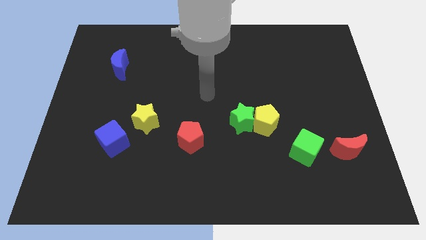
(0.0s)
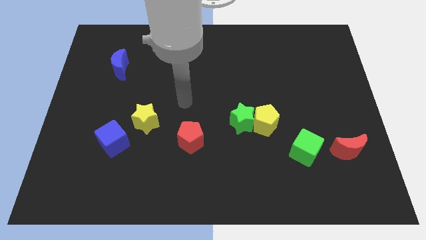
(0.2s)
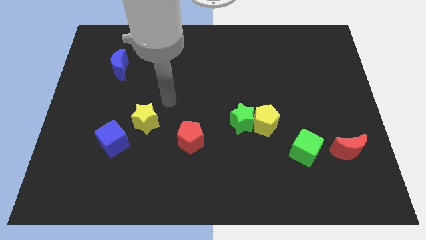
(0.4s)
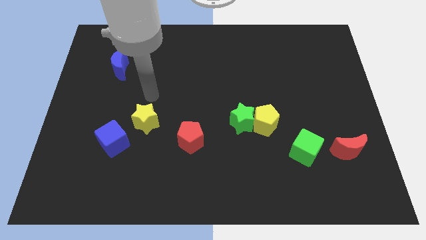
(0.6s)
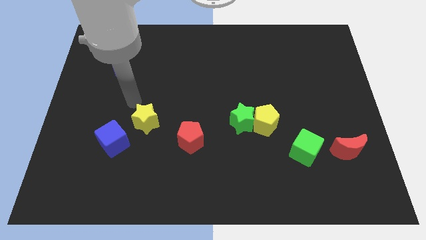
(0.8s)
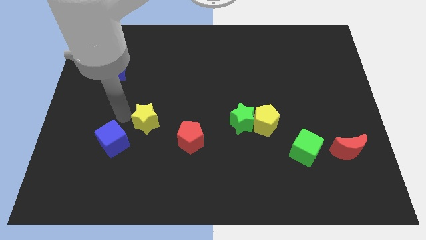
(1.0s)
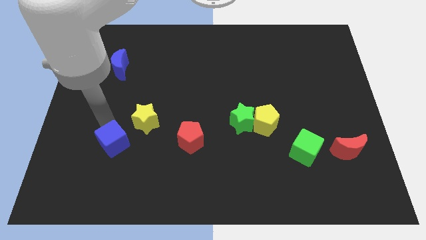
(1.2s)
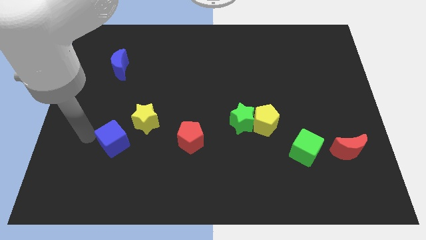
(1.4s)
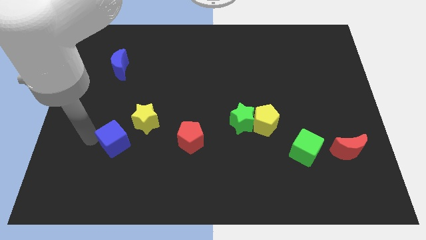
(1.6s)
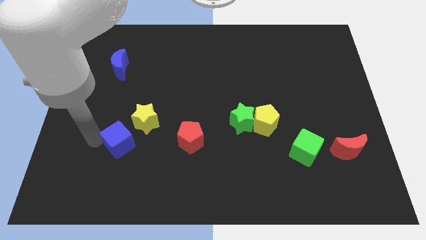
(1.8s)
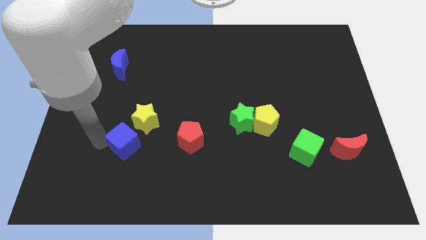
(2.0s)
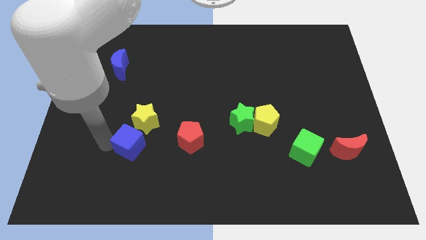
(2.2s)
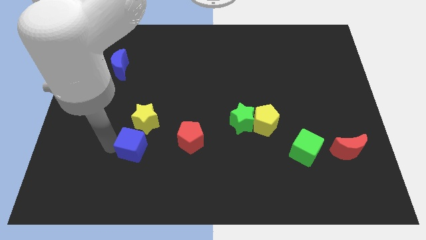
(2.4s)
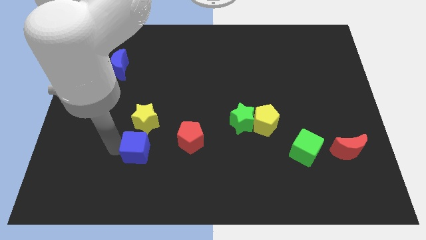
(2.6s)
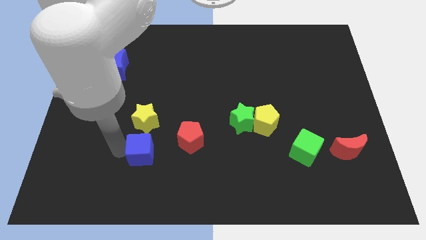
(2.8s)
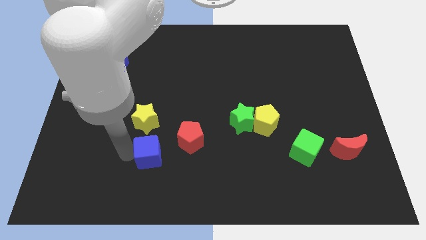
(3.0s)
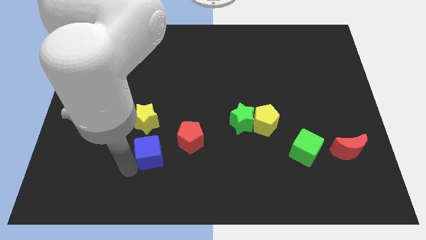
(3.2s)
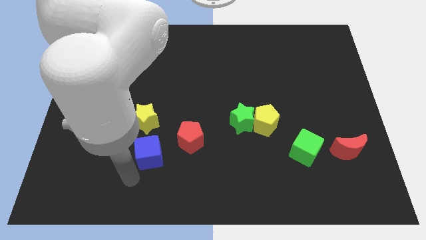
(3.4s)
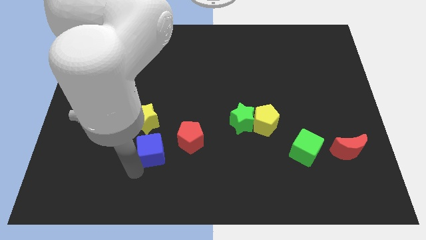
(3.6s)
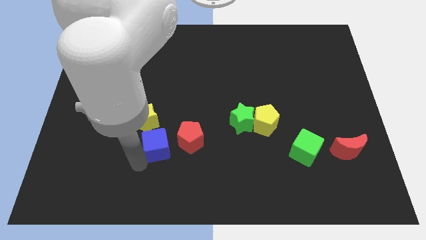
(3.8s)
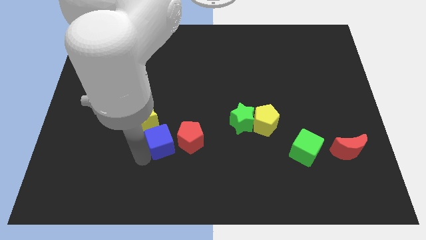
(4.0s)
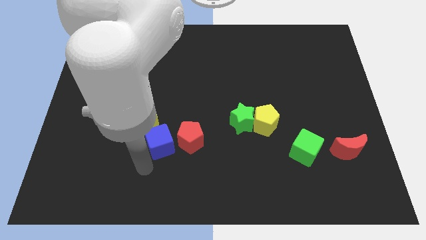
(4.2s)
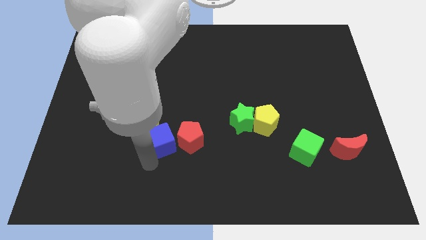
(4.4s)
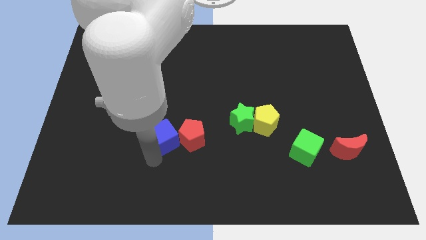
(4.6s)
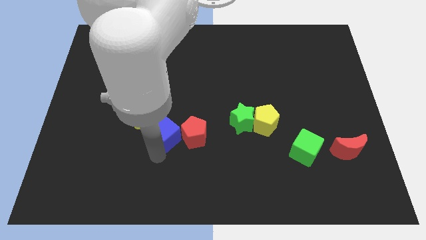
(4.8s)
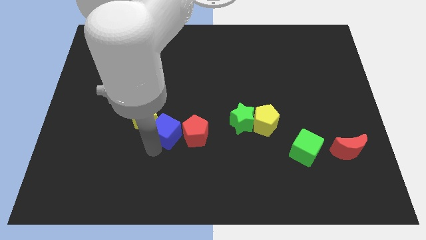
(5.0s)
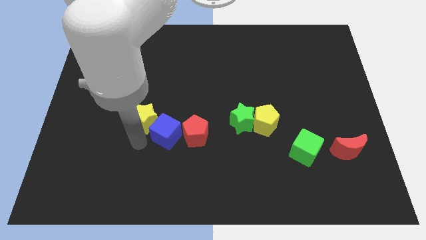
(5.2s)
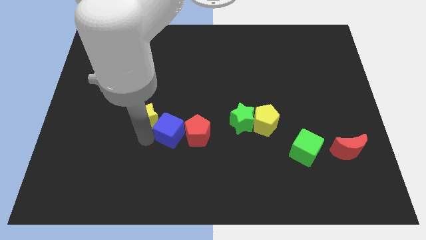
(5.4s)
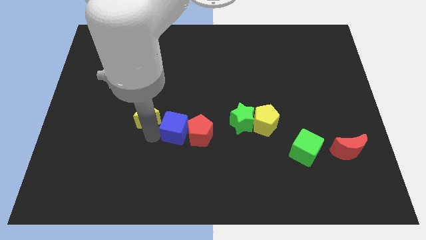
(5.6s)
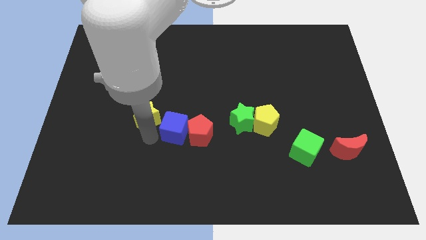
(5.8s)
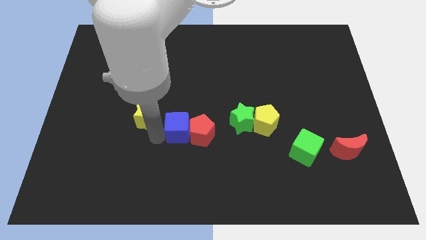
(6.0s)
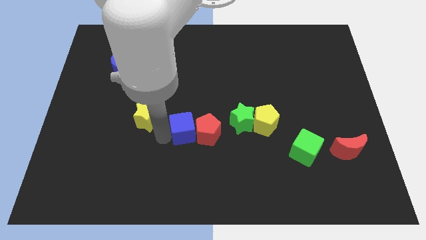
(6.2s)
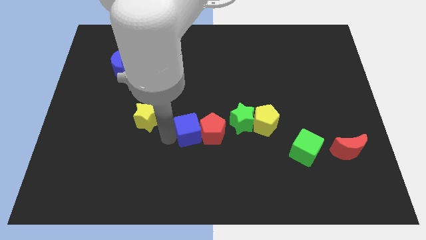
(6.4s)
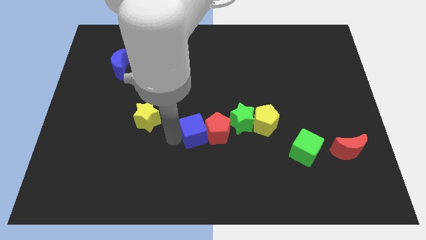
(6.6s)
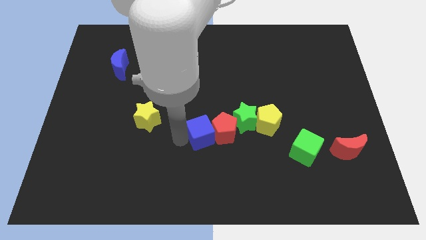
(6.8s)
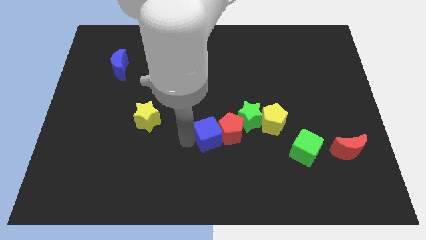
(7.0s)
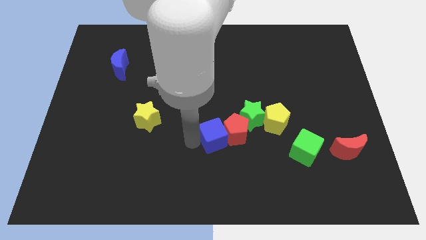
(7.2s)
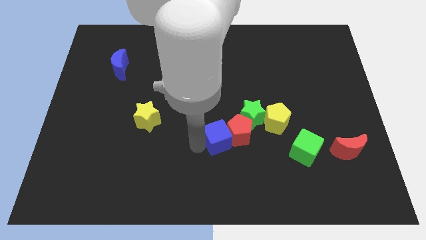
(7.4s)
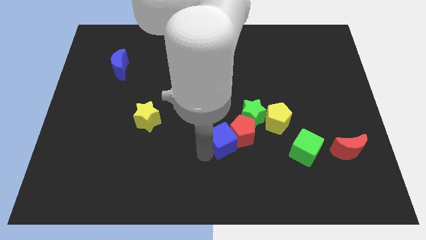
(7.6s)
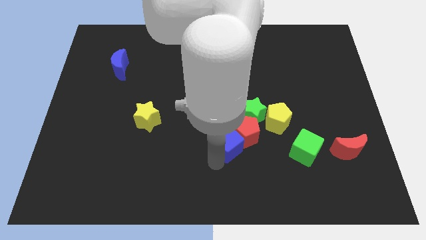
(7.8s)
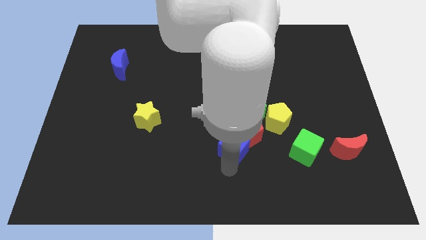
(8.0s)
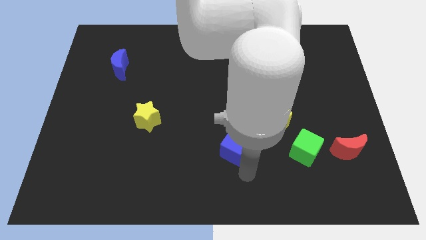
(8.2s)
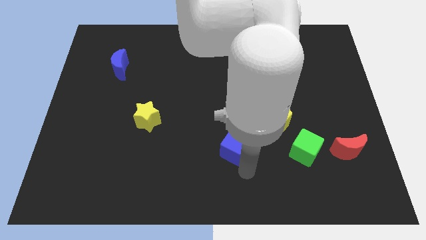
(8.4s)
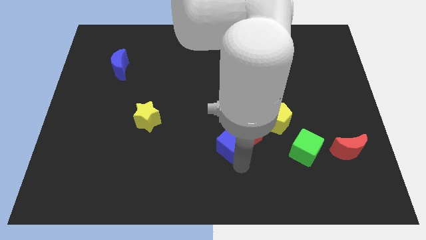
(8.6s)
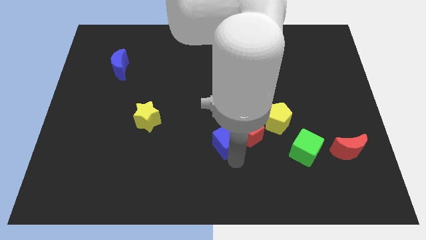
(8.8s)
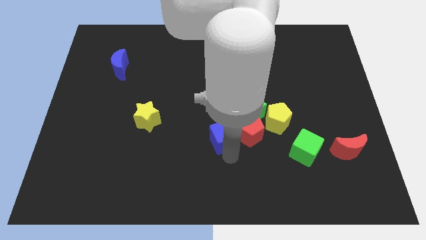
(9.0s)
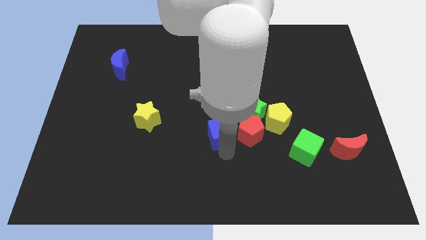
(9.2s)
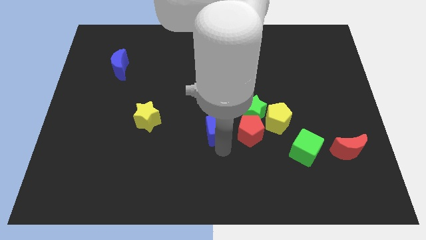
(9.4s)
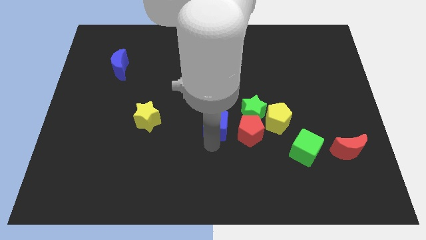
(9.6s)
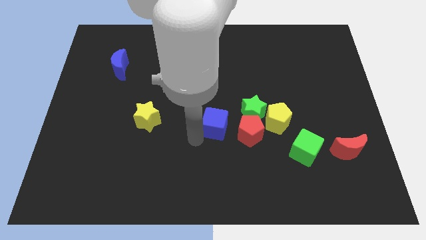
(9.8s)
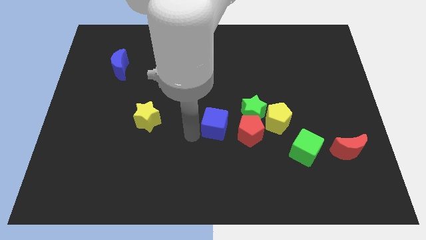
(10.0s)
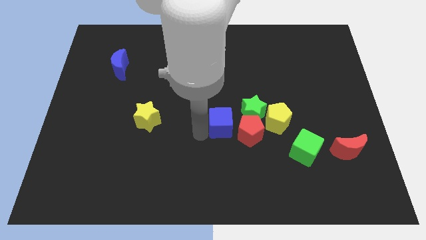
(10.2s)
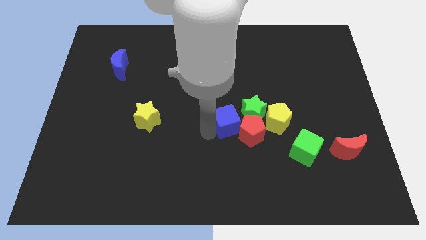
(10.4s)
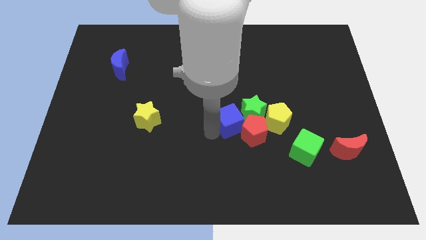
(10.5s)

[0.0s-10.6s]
slide the blue cube towards the green star

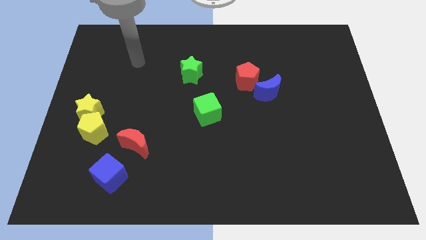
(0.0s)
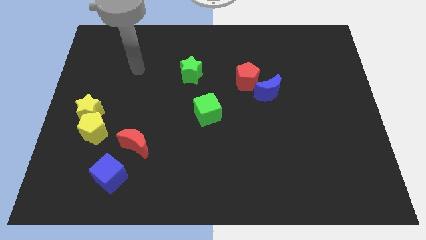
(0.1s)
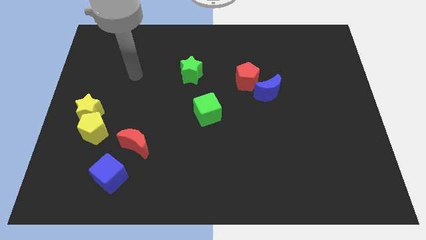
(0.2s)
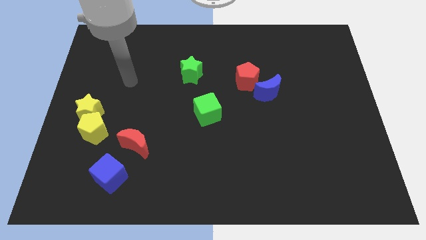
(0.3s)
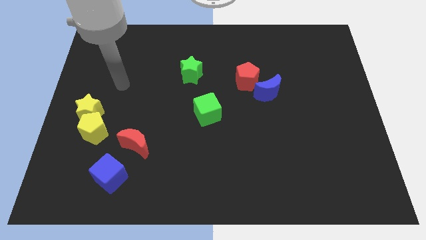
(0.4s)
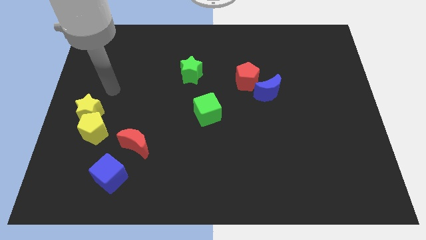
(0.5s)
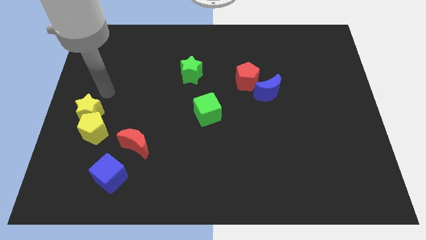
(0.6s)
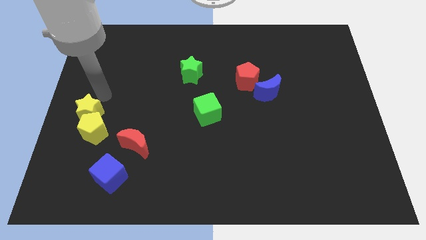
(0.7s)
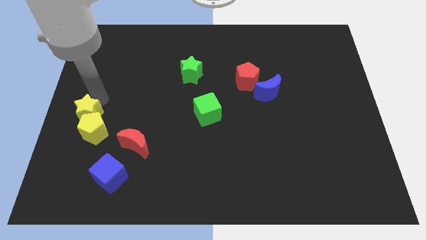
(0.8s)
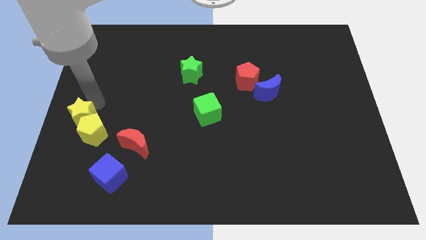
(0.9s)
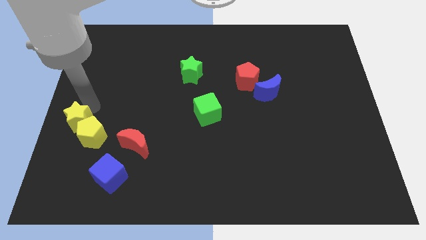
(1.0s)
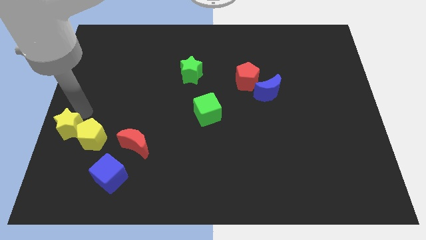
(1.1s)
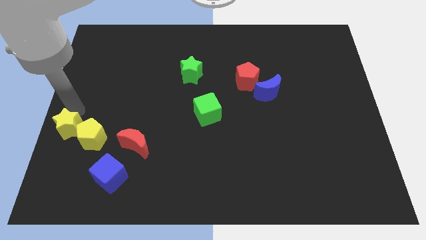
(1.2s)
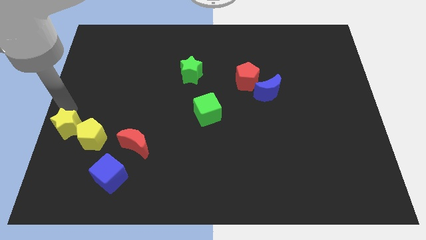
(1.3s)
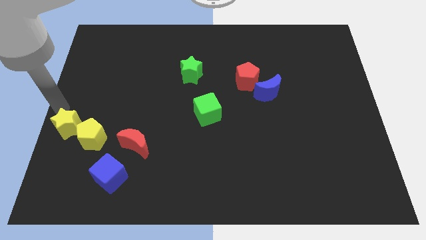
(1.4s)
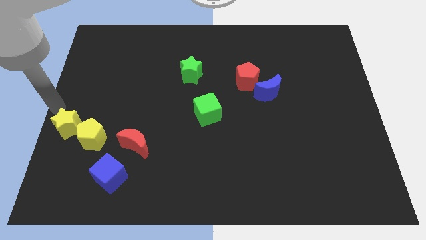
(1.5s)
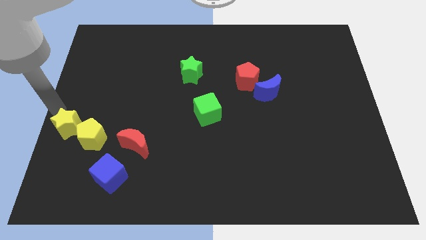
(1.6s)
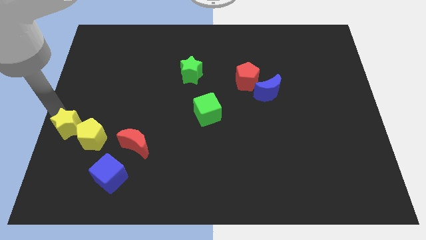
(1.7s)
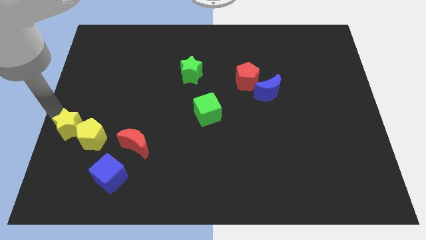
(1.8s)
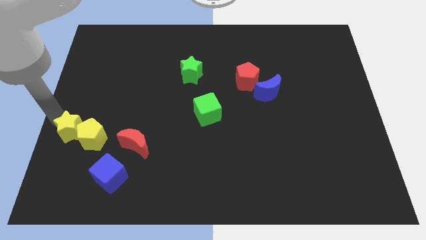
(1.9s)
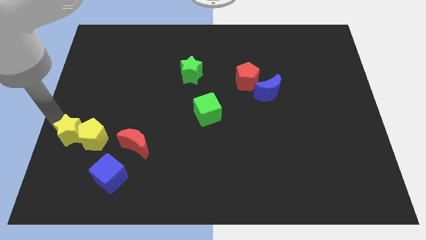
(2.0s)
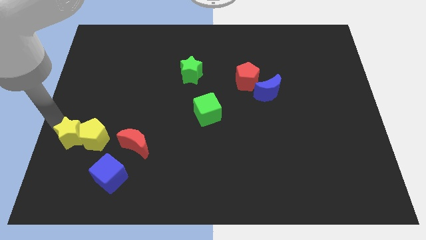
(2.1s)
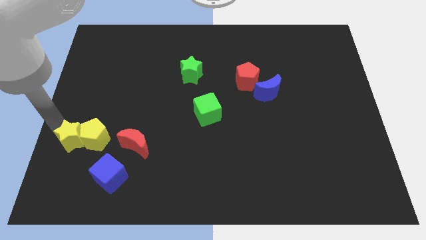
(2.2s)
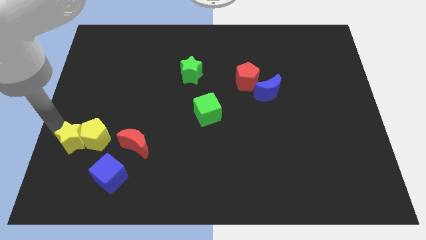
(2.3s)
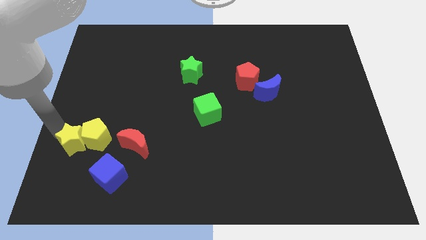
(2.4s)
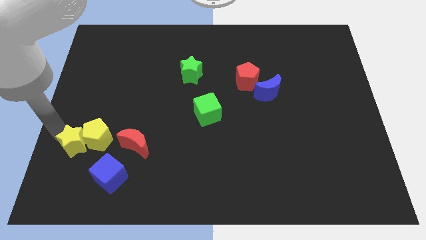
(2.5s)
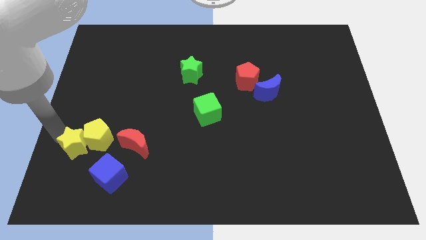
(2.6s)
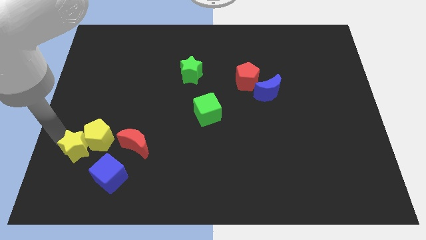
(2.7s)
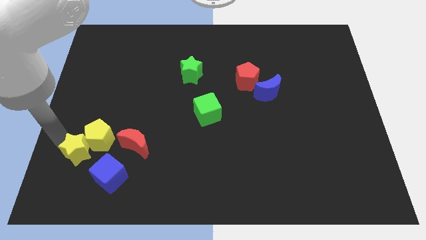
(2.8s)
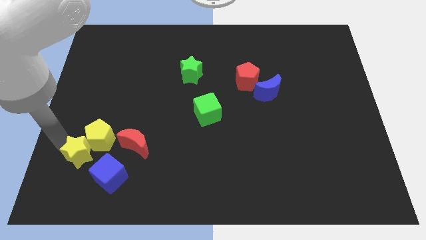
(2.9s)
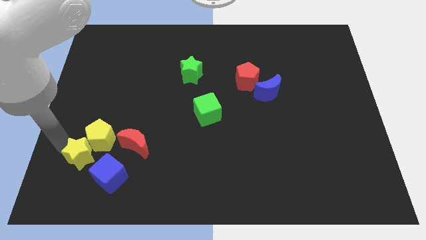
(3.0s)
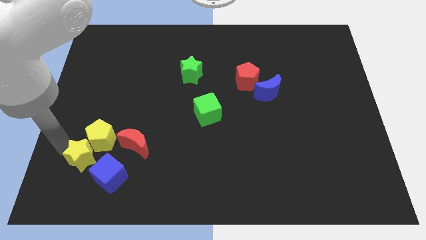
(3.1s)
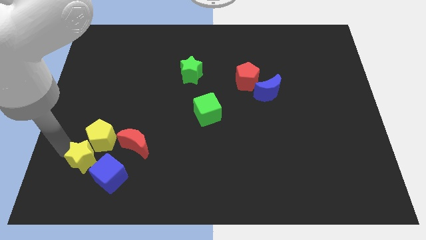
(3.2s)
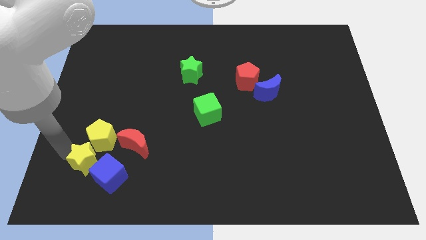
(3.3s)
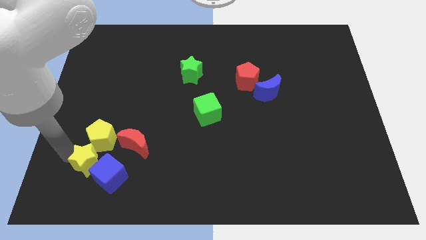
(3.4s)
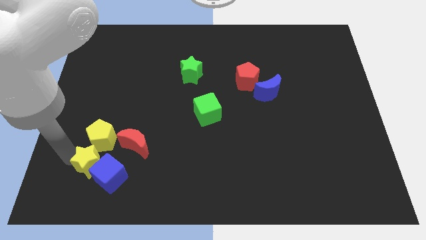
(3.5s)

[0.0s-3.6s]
move the yellow star to the blue cube
